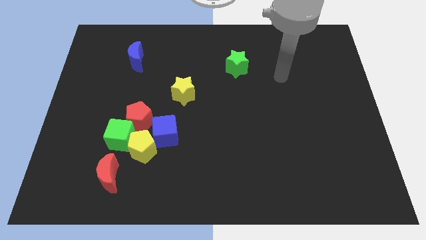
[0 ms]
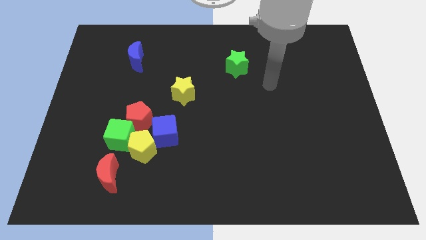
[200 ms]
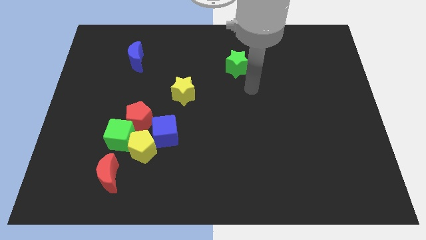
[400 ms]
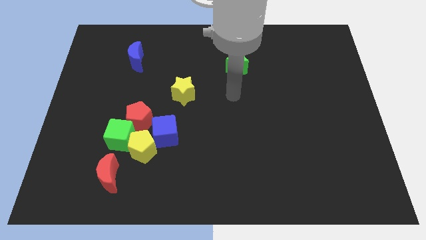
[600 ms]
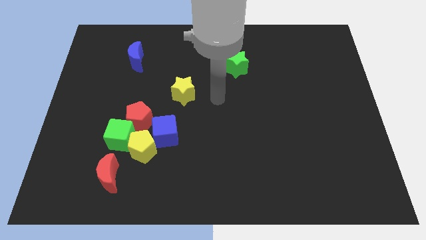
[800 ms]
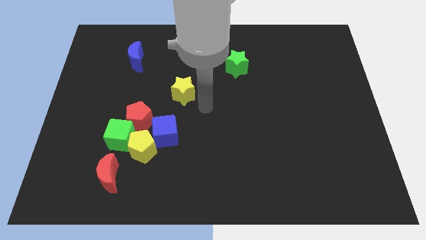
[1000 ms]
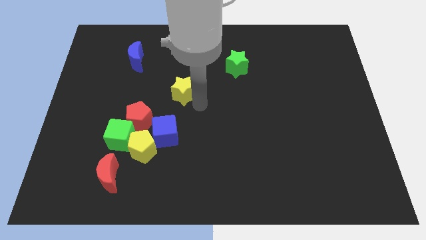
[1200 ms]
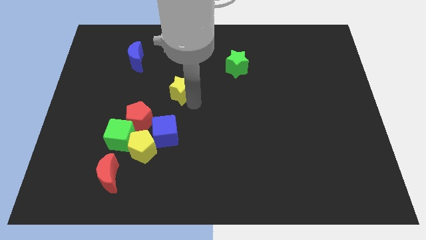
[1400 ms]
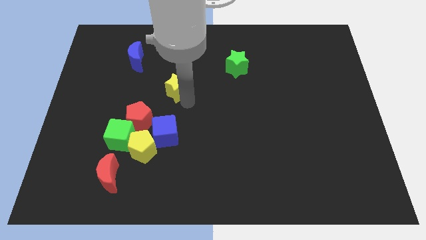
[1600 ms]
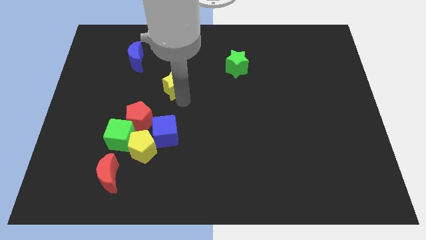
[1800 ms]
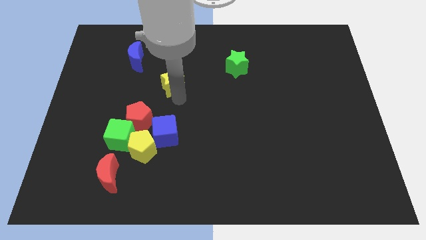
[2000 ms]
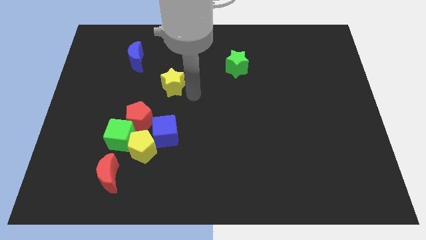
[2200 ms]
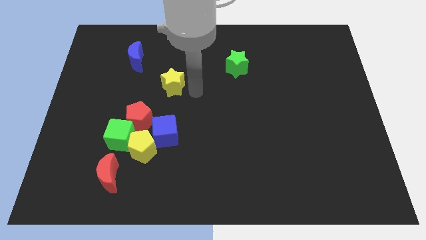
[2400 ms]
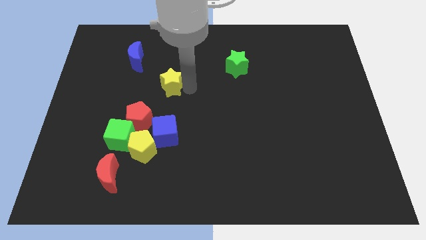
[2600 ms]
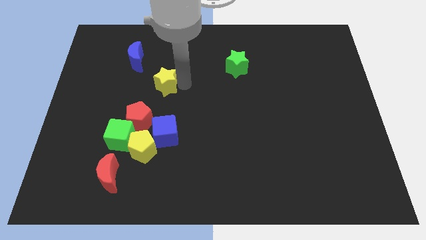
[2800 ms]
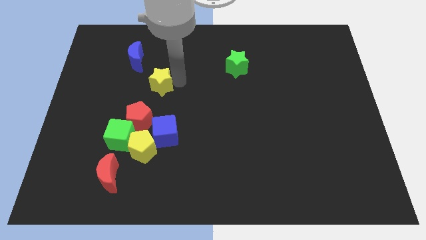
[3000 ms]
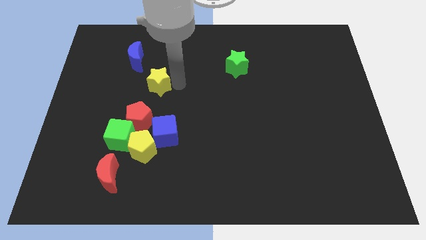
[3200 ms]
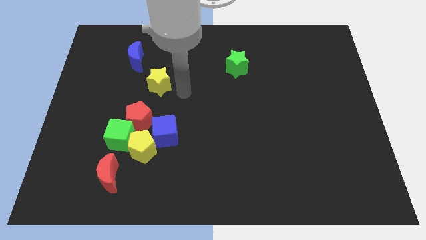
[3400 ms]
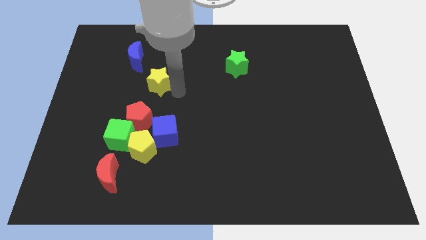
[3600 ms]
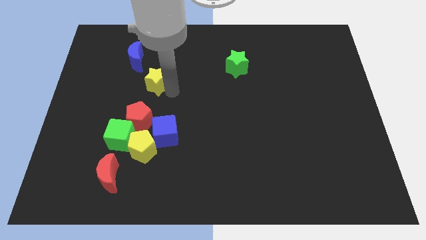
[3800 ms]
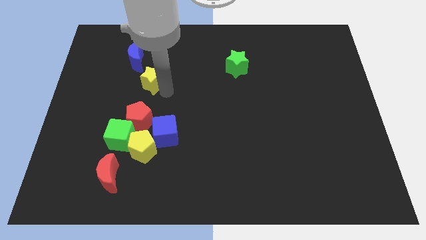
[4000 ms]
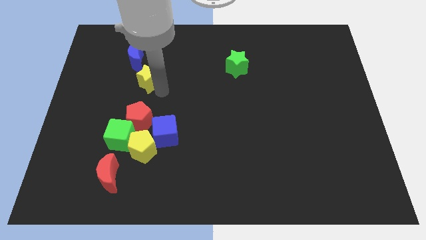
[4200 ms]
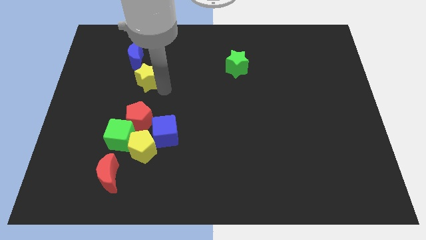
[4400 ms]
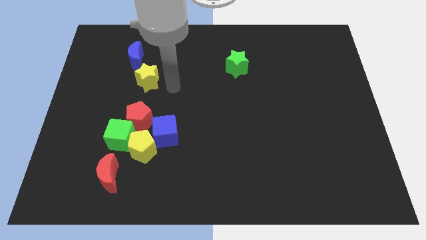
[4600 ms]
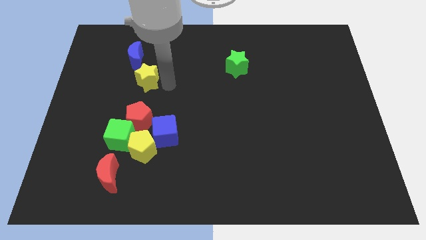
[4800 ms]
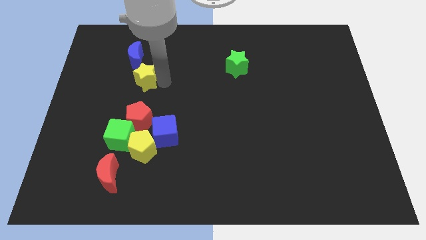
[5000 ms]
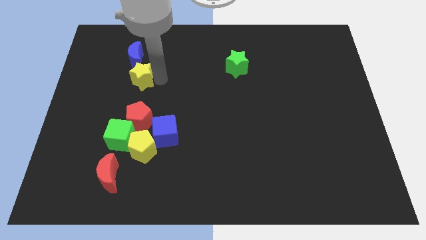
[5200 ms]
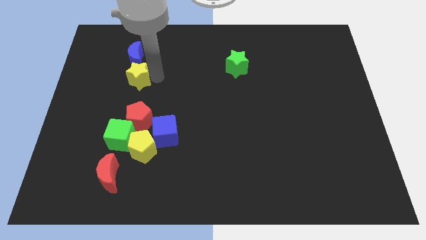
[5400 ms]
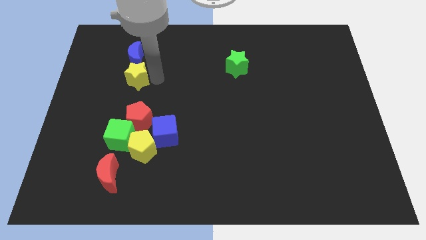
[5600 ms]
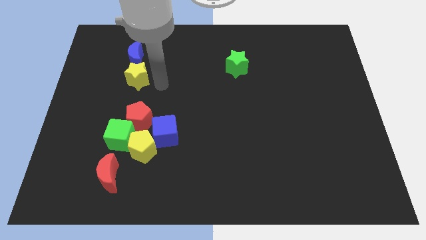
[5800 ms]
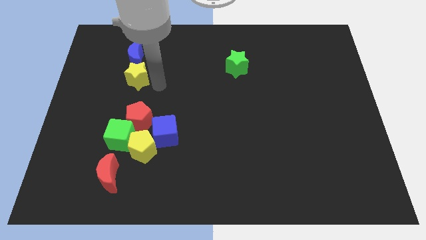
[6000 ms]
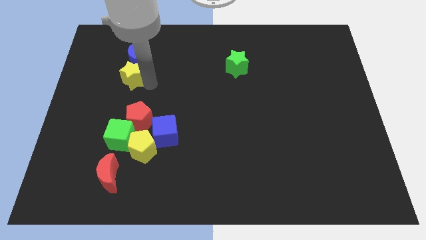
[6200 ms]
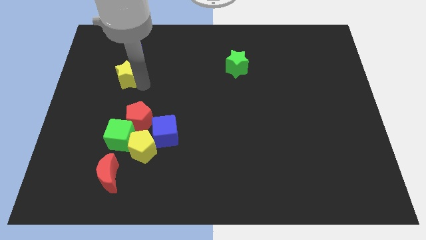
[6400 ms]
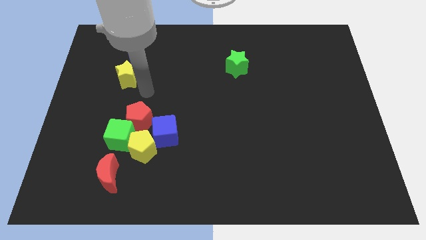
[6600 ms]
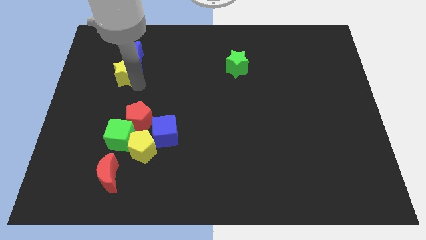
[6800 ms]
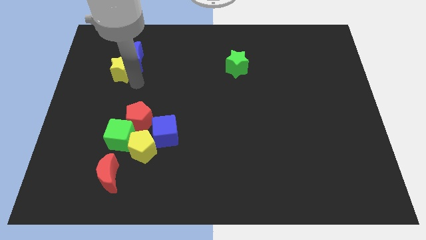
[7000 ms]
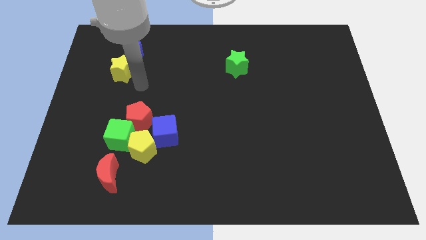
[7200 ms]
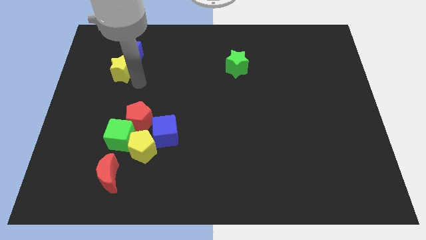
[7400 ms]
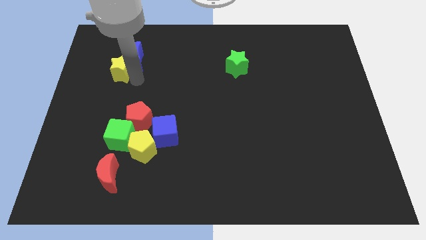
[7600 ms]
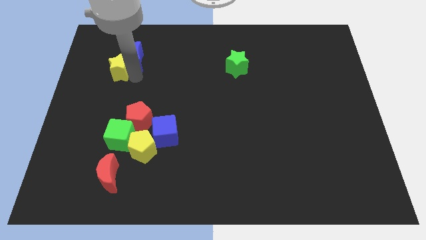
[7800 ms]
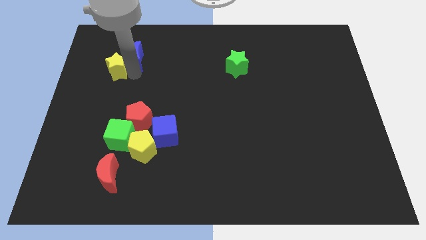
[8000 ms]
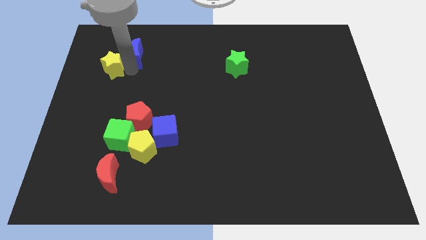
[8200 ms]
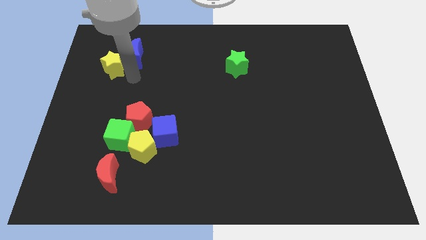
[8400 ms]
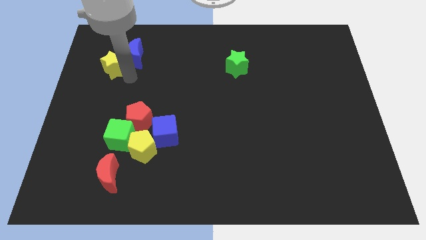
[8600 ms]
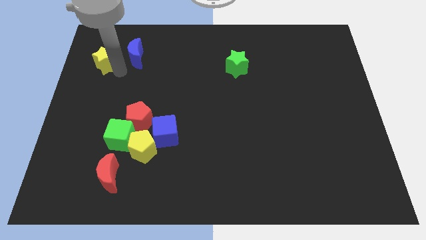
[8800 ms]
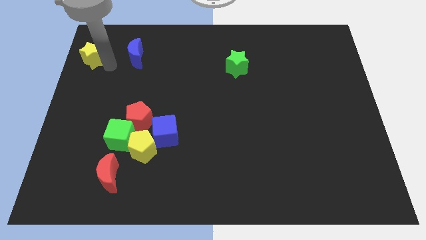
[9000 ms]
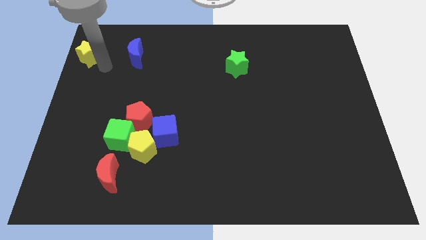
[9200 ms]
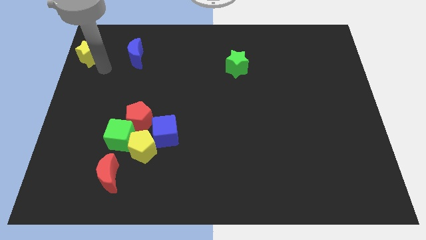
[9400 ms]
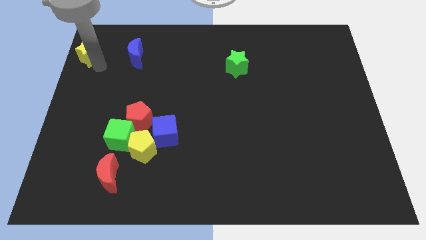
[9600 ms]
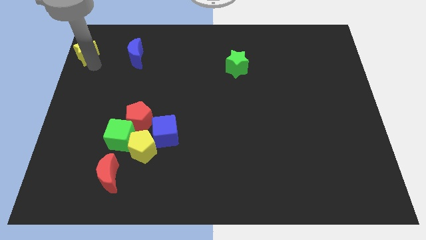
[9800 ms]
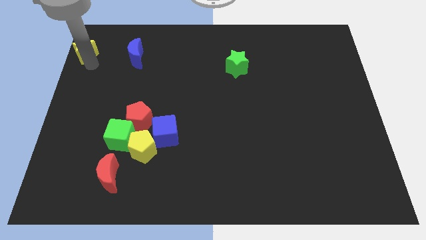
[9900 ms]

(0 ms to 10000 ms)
slide the yellow star to the upper left corner

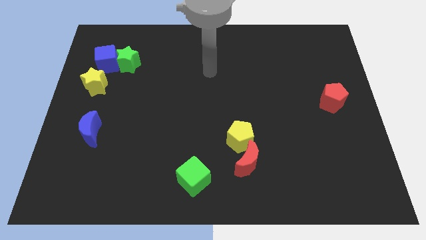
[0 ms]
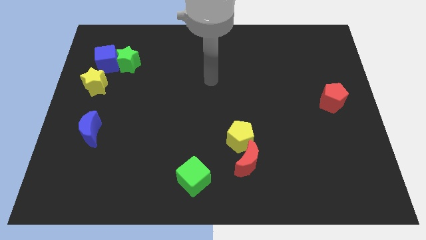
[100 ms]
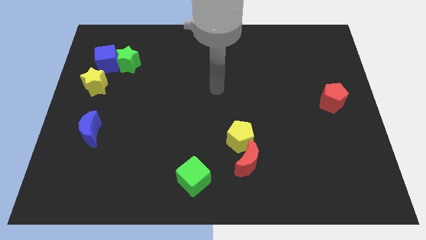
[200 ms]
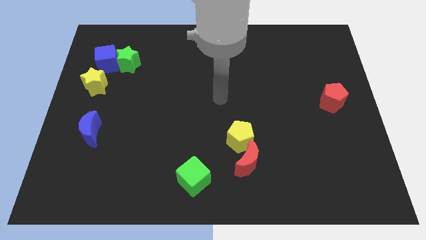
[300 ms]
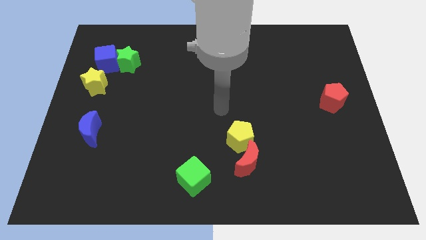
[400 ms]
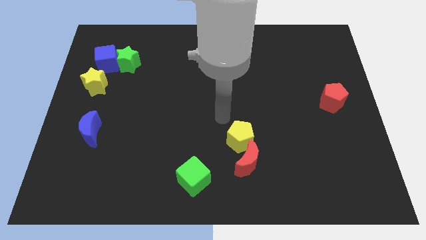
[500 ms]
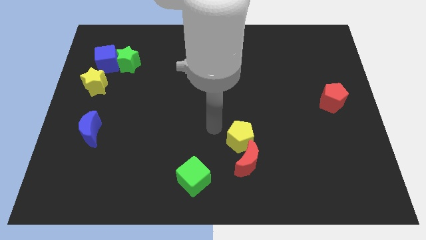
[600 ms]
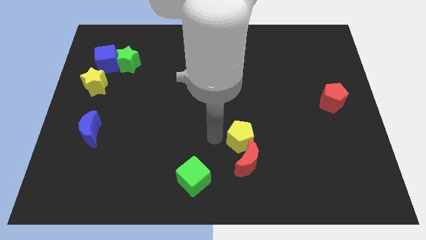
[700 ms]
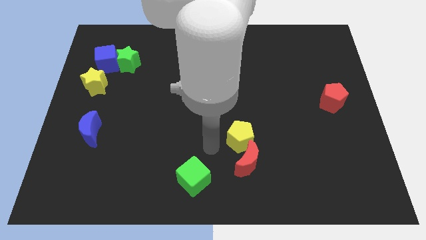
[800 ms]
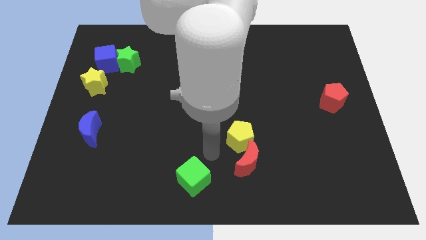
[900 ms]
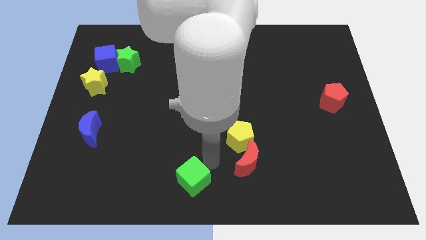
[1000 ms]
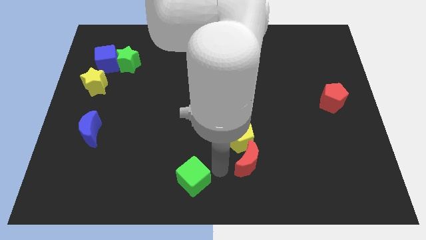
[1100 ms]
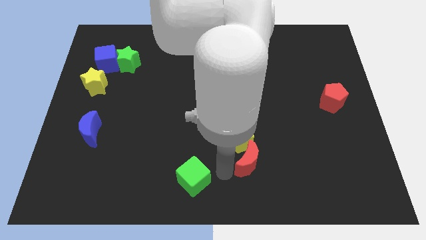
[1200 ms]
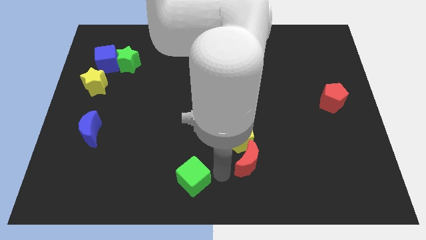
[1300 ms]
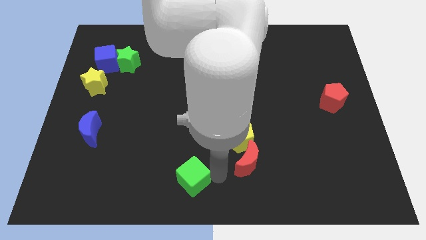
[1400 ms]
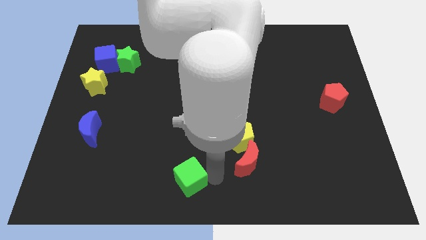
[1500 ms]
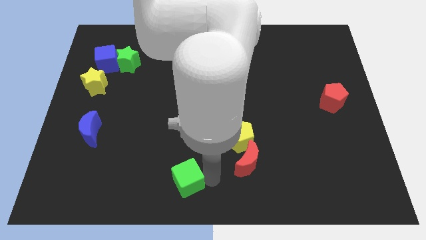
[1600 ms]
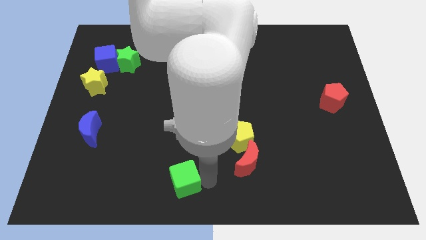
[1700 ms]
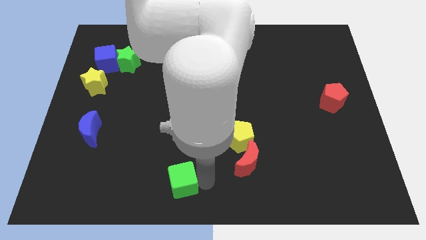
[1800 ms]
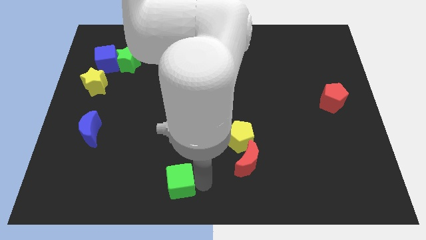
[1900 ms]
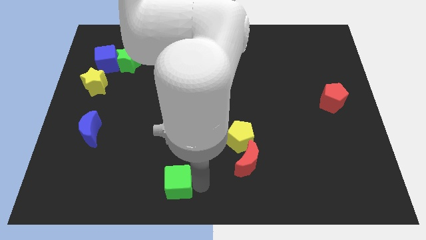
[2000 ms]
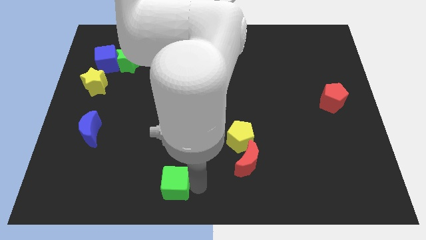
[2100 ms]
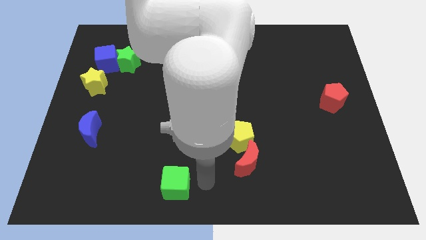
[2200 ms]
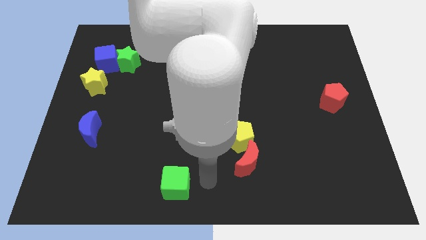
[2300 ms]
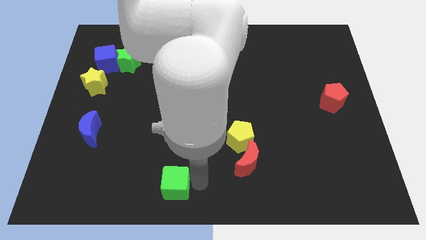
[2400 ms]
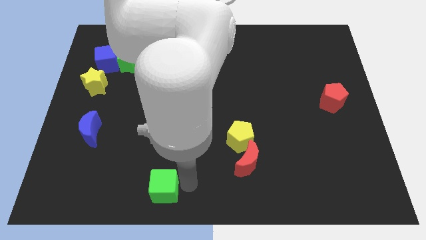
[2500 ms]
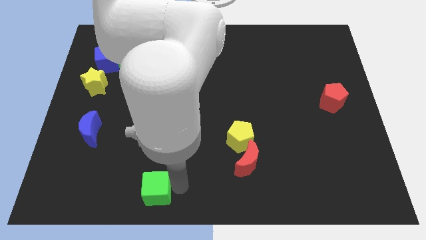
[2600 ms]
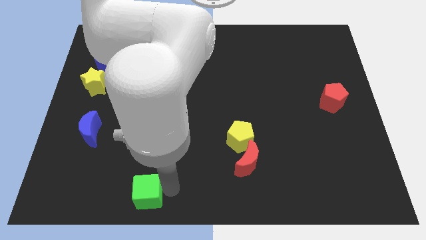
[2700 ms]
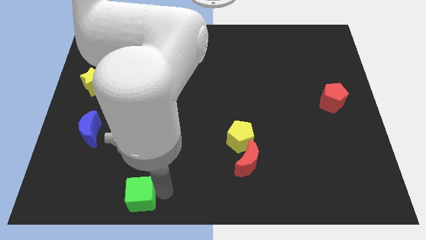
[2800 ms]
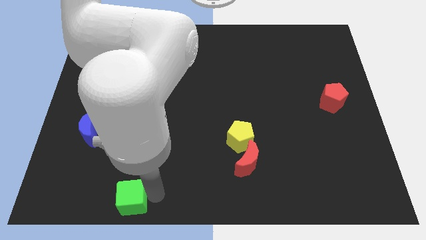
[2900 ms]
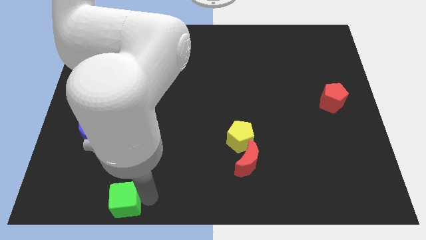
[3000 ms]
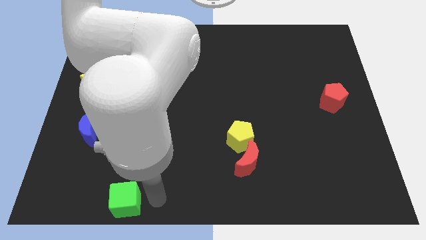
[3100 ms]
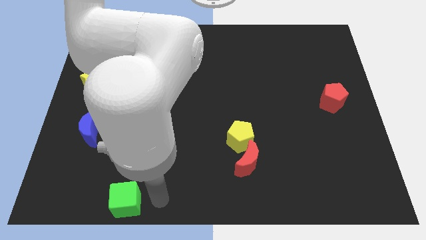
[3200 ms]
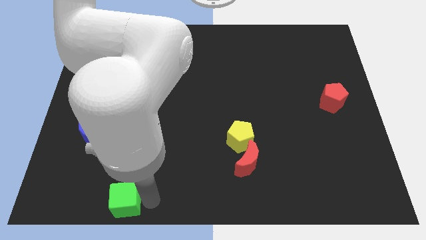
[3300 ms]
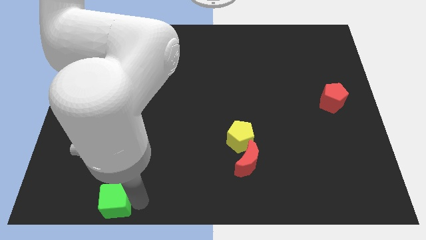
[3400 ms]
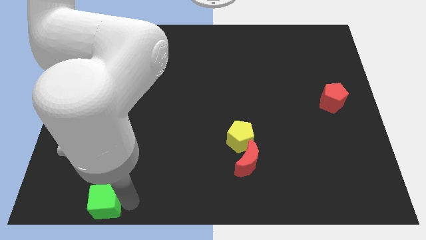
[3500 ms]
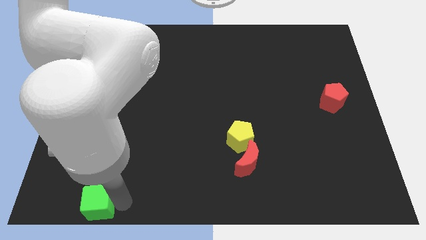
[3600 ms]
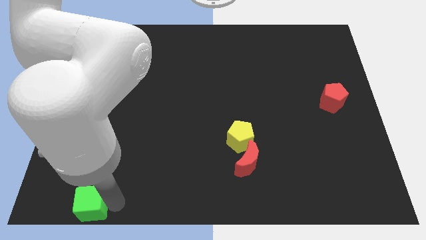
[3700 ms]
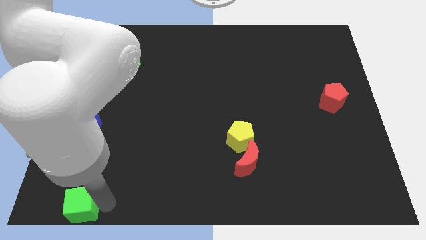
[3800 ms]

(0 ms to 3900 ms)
push the green cube to the bottom left
